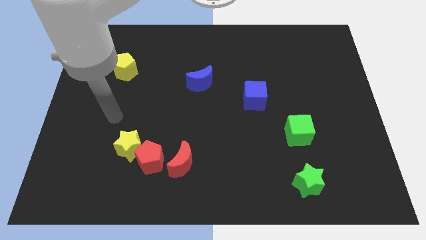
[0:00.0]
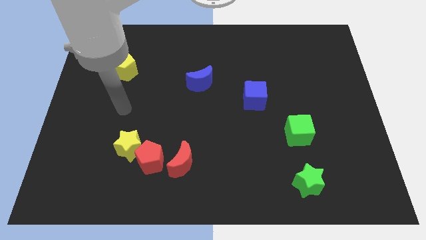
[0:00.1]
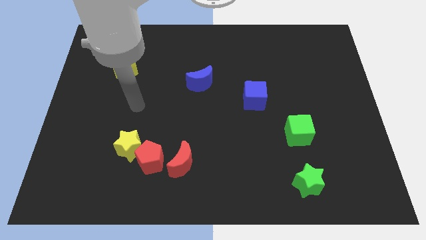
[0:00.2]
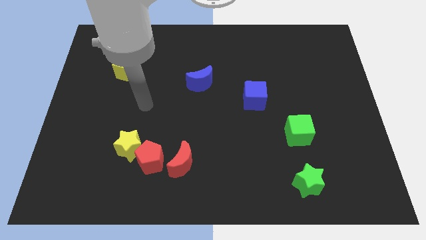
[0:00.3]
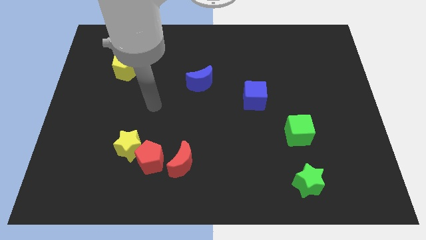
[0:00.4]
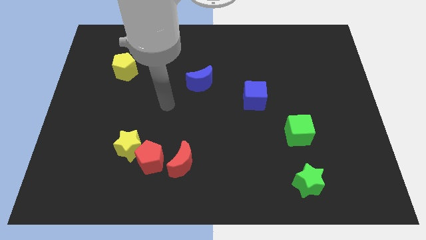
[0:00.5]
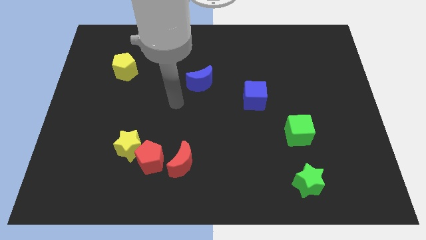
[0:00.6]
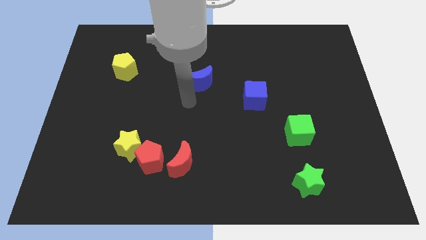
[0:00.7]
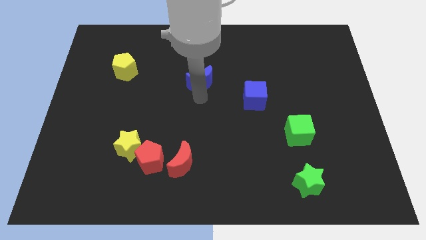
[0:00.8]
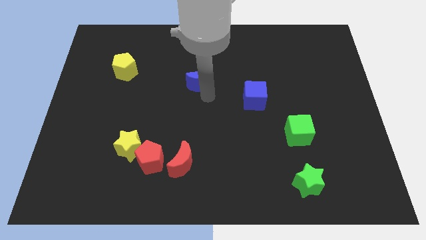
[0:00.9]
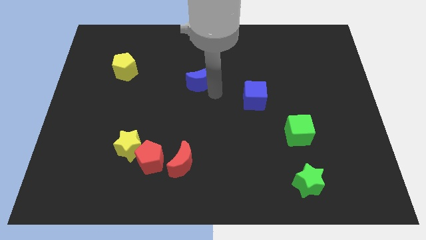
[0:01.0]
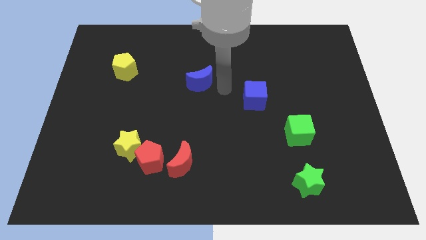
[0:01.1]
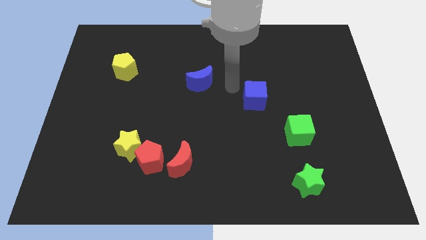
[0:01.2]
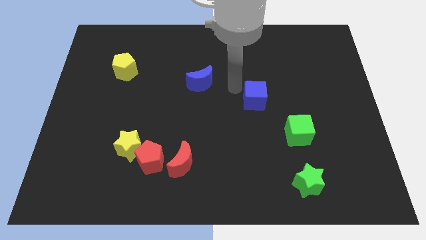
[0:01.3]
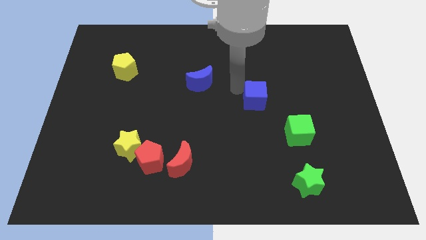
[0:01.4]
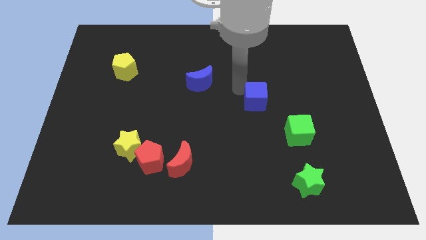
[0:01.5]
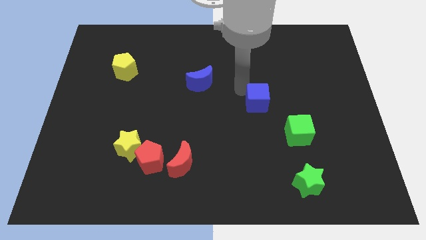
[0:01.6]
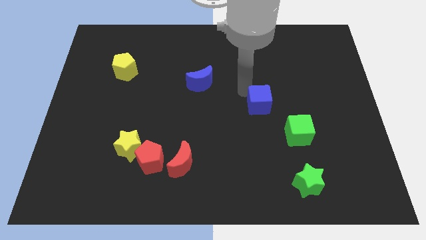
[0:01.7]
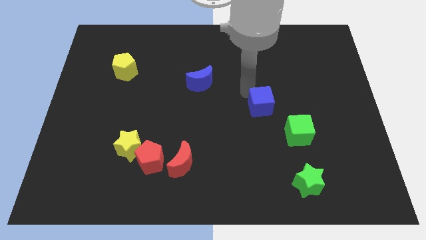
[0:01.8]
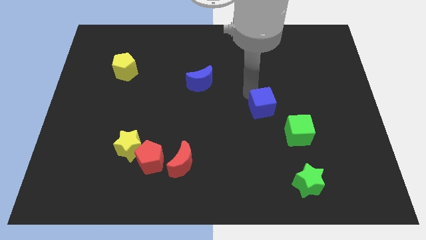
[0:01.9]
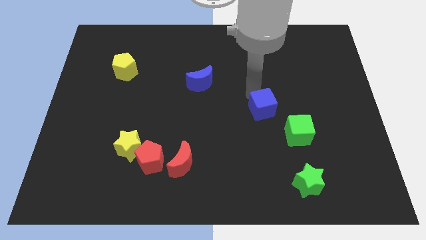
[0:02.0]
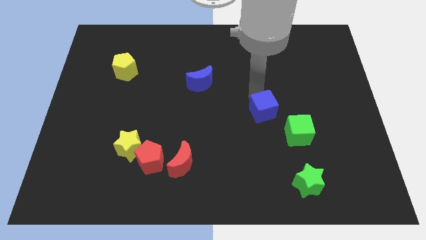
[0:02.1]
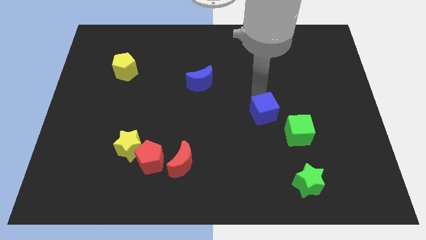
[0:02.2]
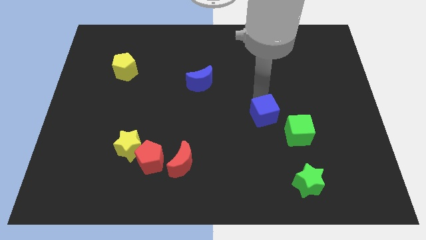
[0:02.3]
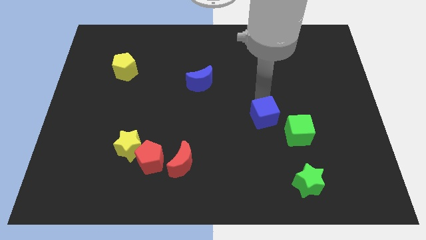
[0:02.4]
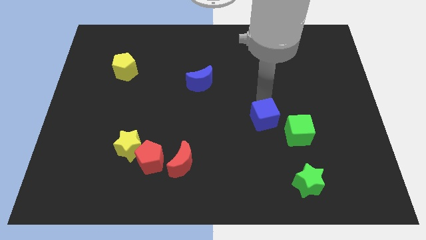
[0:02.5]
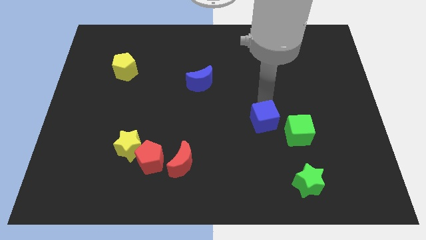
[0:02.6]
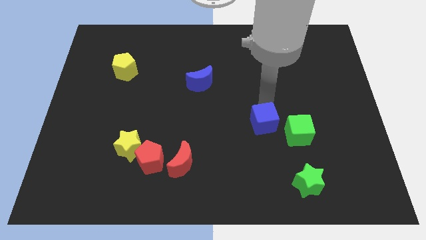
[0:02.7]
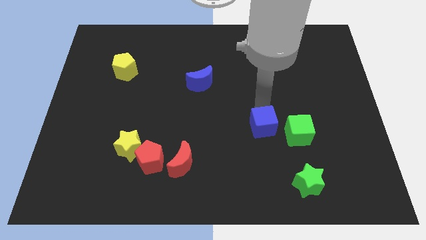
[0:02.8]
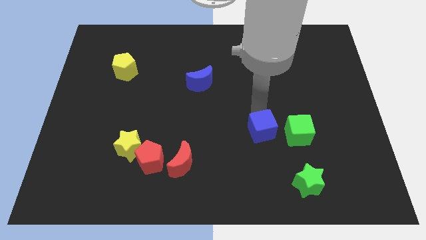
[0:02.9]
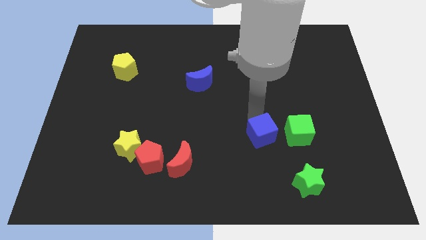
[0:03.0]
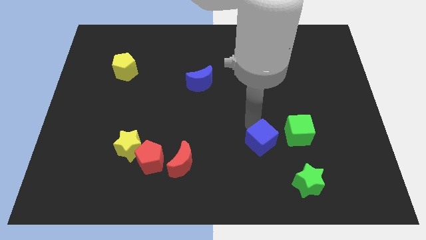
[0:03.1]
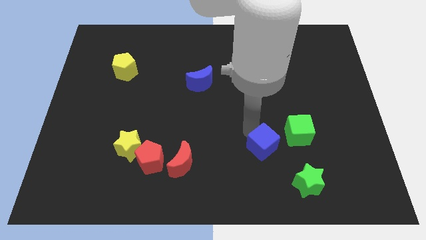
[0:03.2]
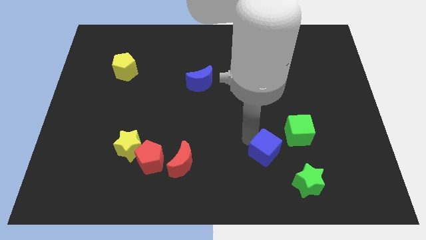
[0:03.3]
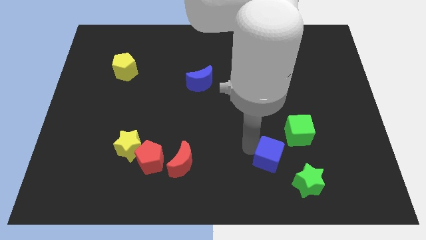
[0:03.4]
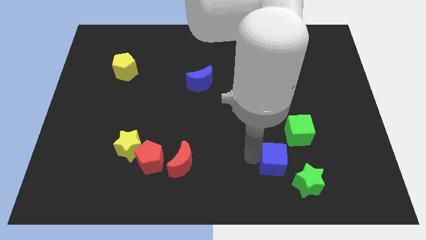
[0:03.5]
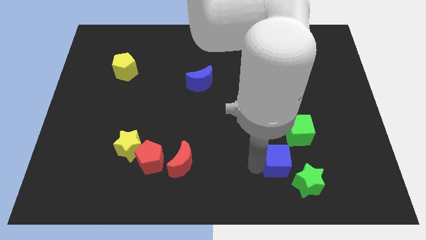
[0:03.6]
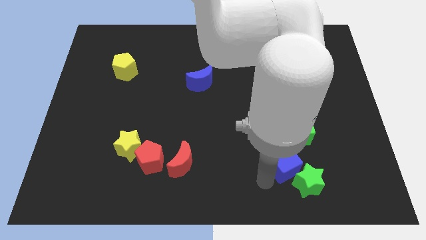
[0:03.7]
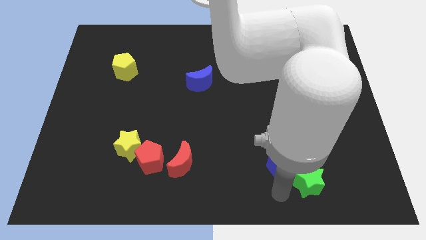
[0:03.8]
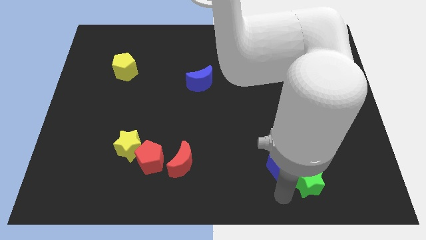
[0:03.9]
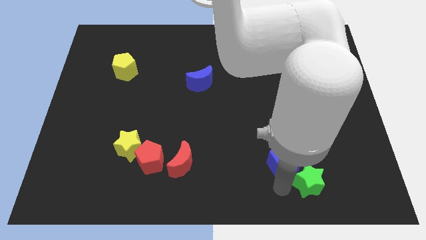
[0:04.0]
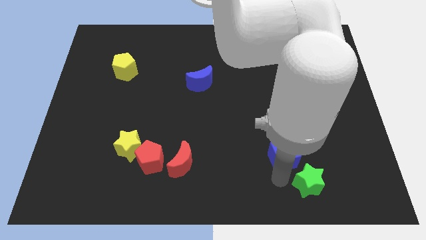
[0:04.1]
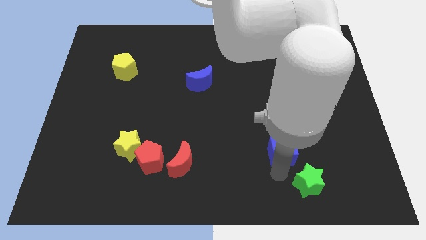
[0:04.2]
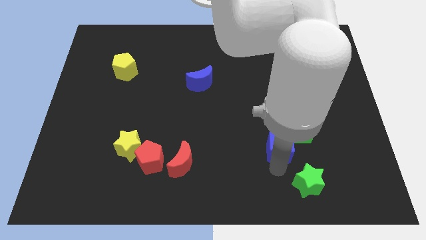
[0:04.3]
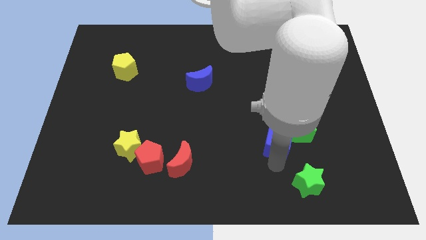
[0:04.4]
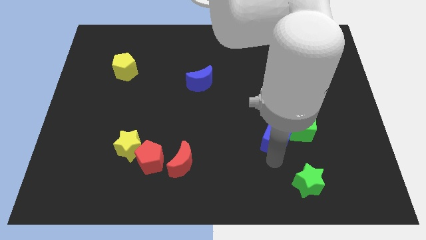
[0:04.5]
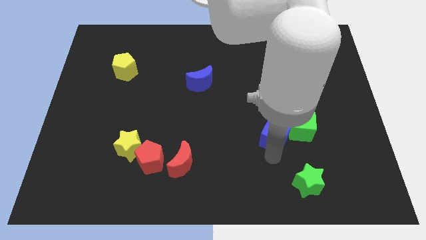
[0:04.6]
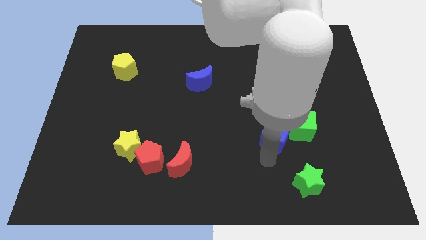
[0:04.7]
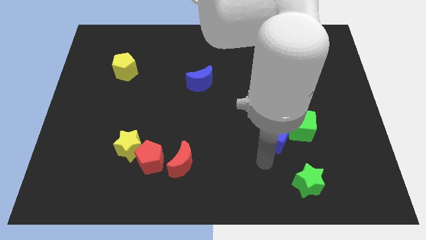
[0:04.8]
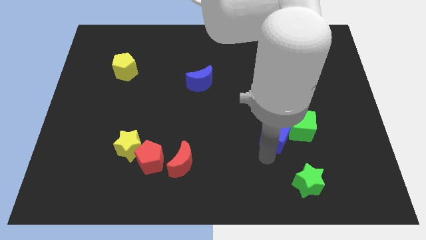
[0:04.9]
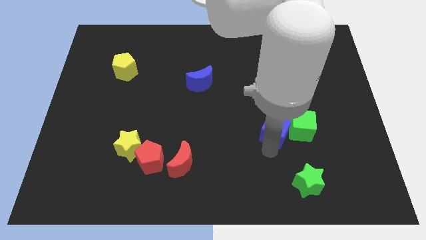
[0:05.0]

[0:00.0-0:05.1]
move the blue cube to the green cube

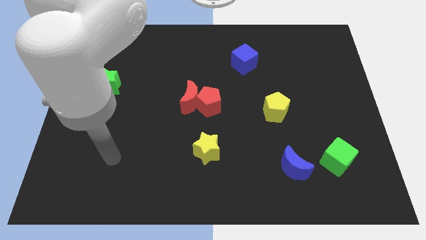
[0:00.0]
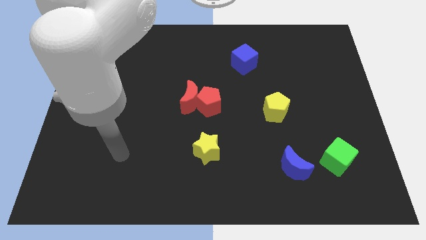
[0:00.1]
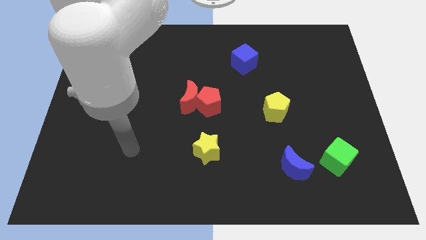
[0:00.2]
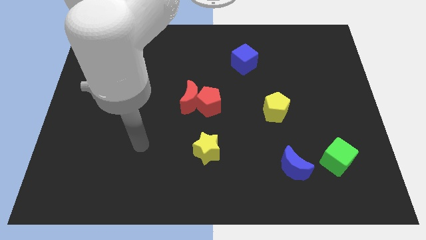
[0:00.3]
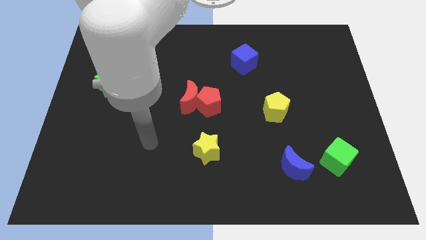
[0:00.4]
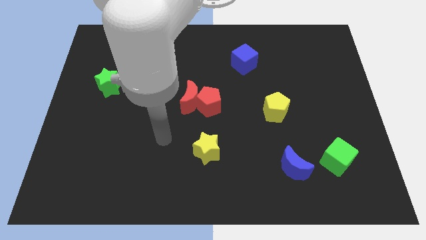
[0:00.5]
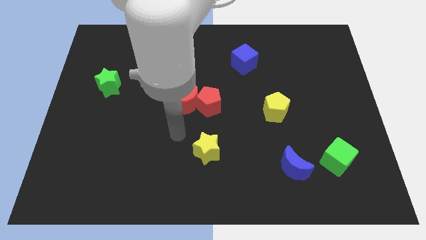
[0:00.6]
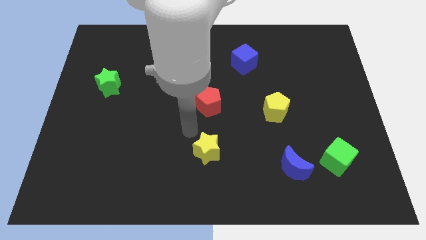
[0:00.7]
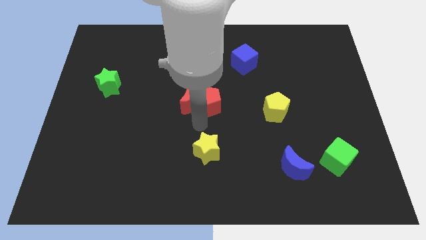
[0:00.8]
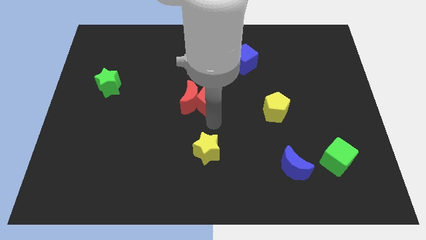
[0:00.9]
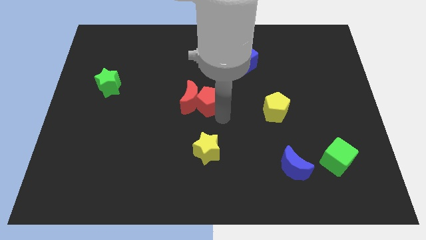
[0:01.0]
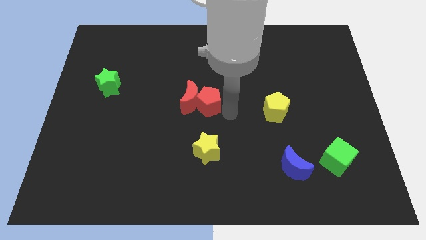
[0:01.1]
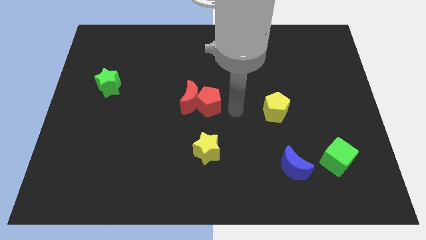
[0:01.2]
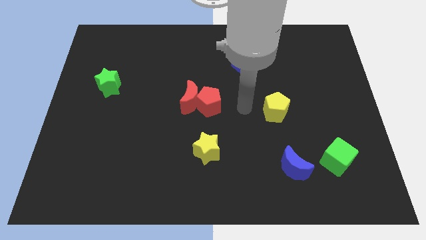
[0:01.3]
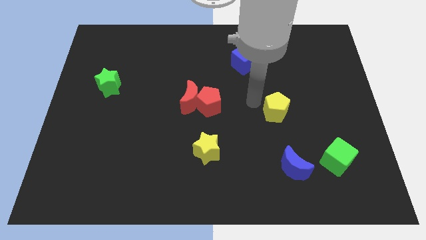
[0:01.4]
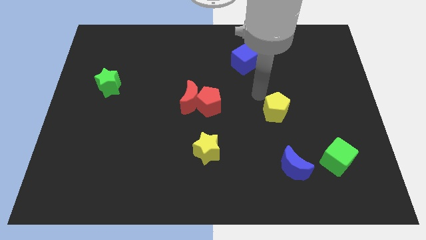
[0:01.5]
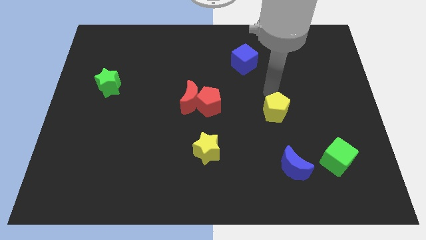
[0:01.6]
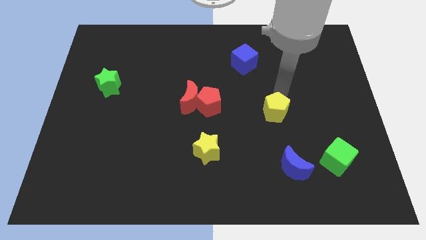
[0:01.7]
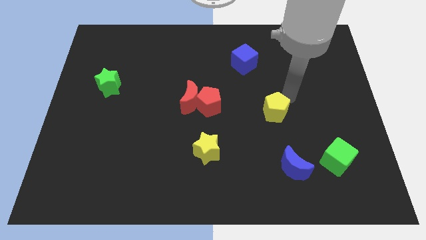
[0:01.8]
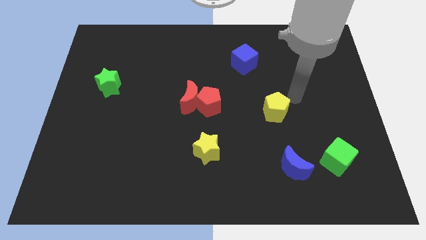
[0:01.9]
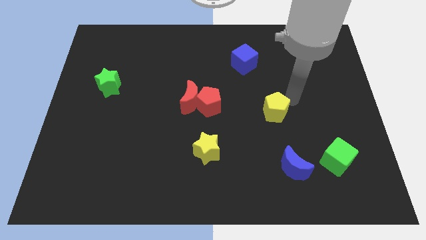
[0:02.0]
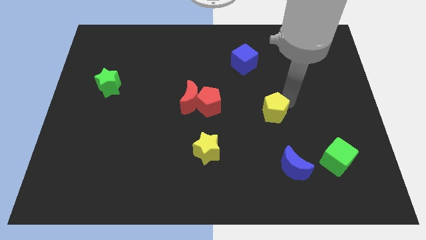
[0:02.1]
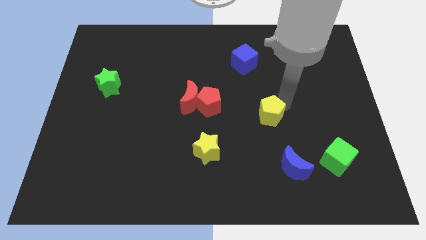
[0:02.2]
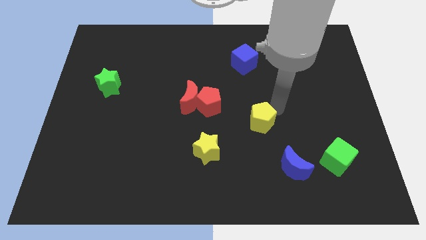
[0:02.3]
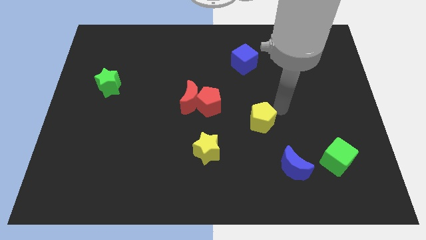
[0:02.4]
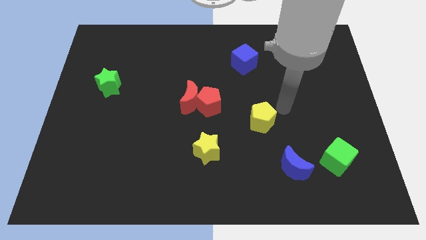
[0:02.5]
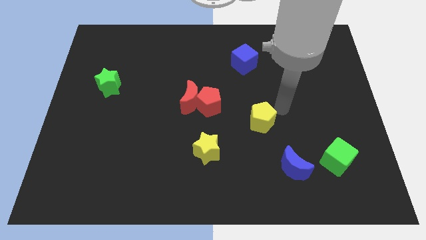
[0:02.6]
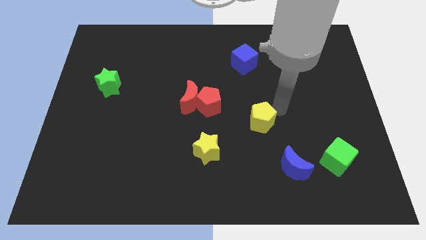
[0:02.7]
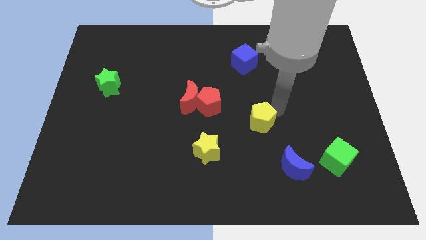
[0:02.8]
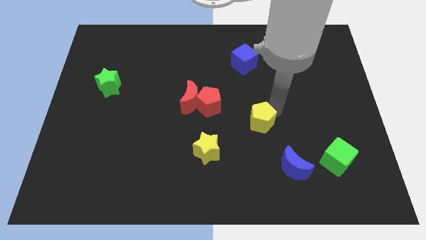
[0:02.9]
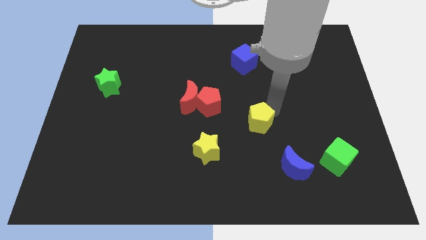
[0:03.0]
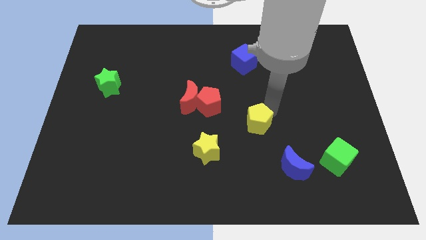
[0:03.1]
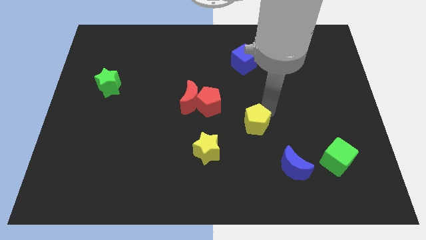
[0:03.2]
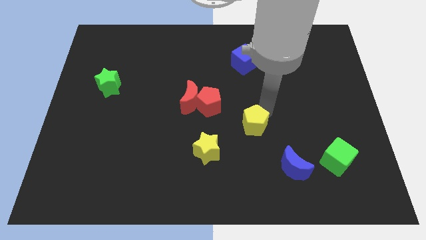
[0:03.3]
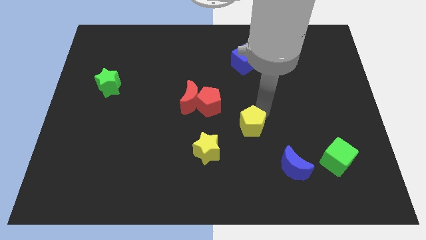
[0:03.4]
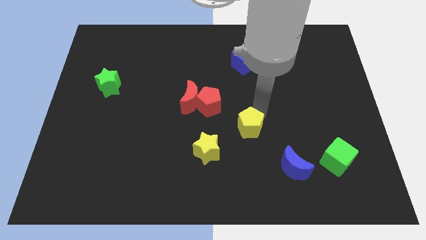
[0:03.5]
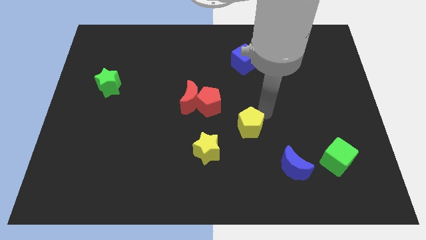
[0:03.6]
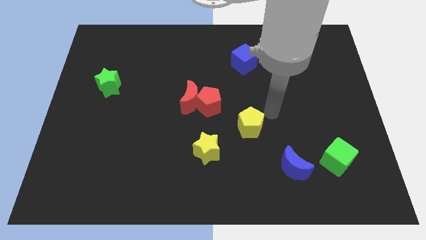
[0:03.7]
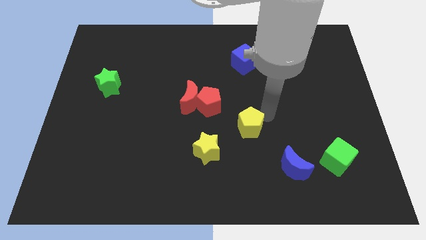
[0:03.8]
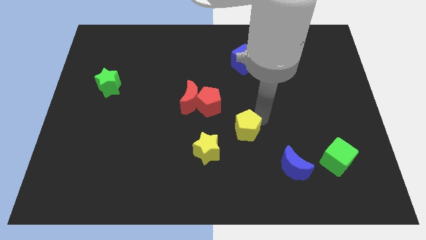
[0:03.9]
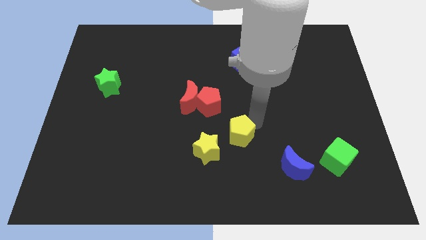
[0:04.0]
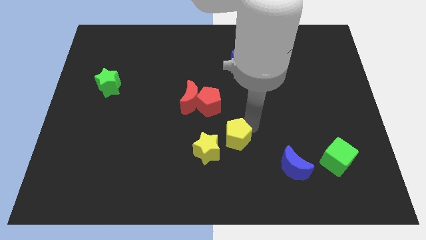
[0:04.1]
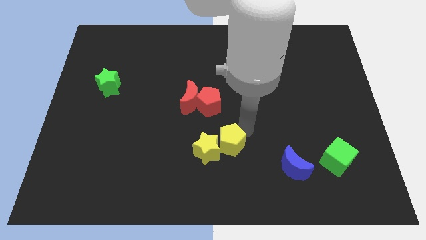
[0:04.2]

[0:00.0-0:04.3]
move the yellow pentagon towards the yellow star
